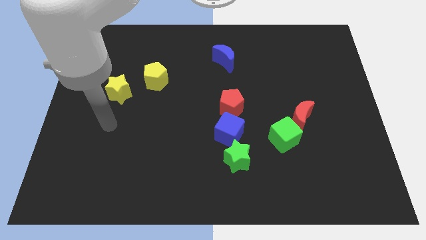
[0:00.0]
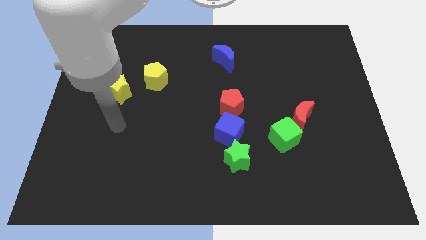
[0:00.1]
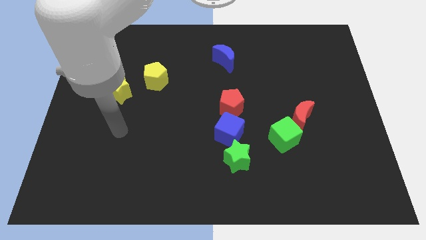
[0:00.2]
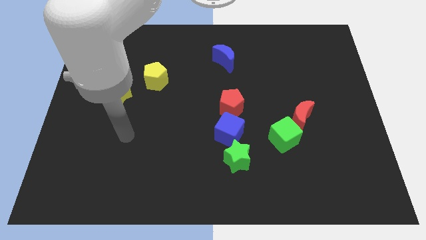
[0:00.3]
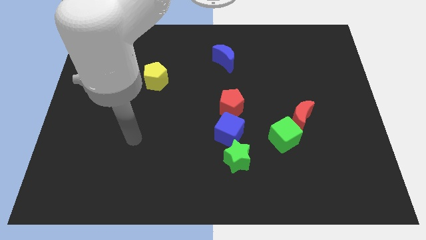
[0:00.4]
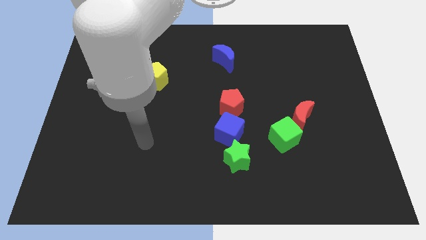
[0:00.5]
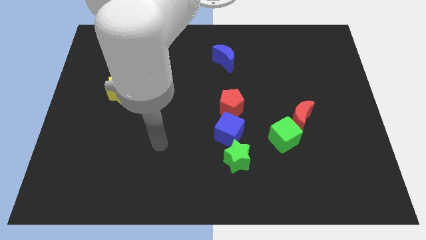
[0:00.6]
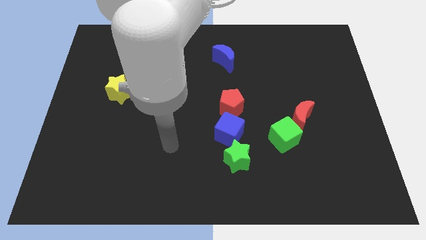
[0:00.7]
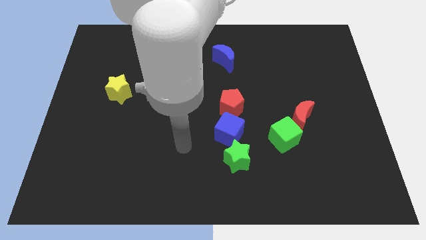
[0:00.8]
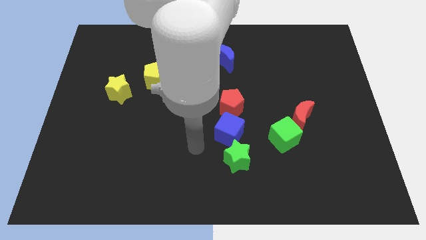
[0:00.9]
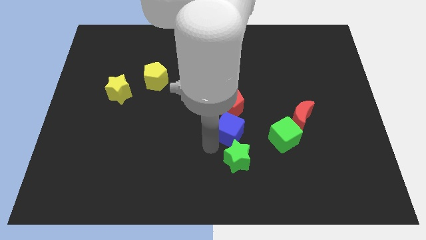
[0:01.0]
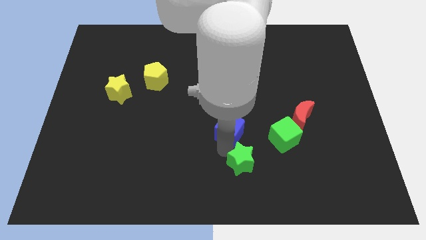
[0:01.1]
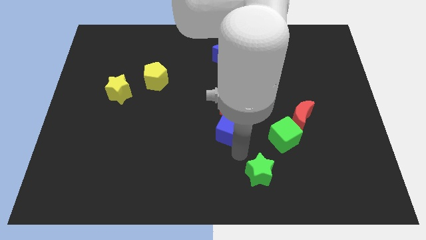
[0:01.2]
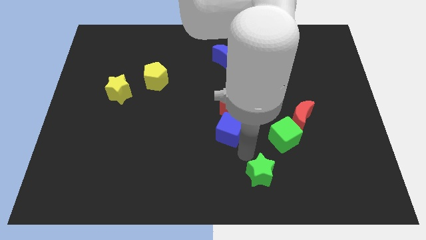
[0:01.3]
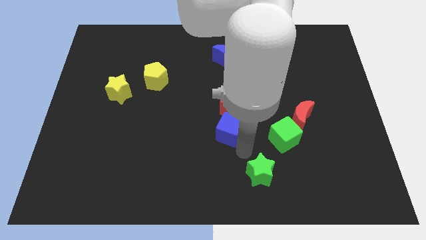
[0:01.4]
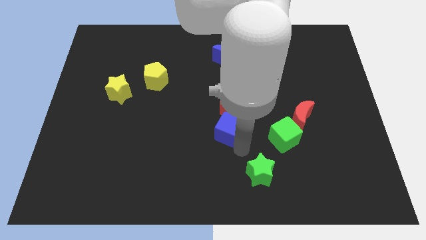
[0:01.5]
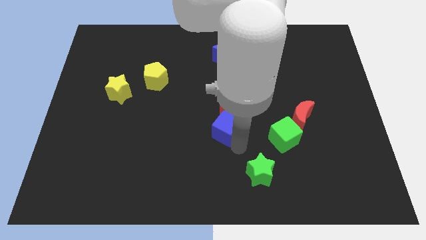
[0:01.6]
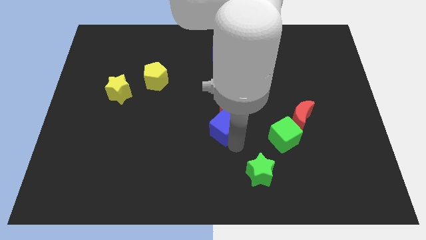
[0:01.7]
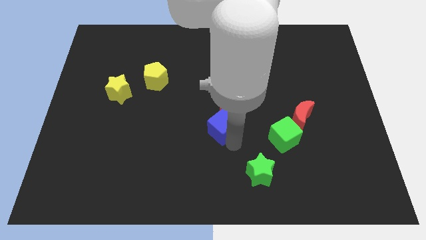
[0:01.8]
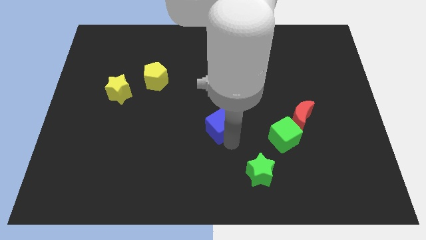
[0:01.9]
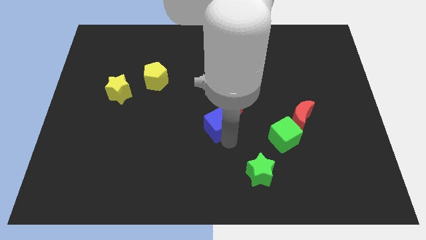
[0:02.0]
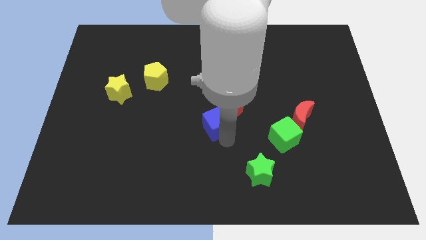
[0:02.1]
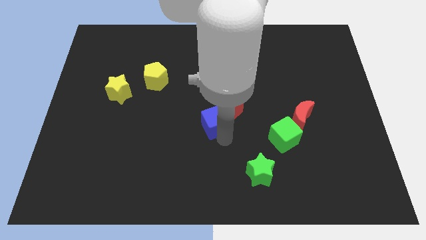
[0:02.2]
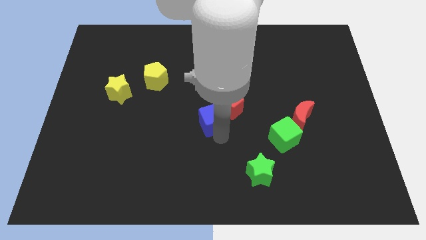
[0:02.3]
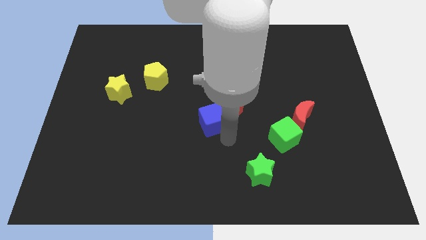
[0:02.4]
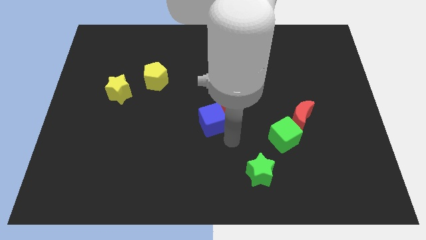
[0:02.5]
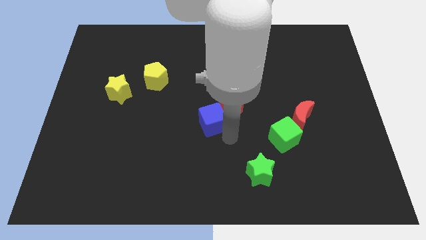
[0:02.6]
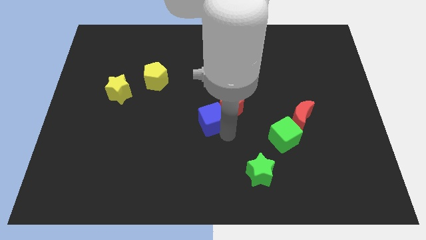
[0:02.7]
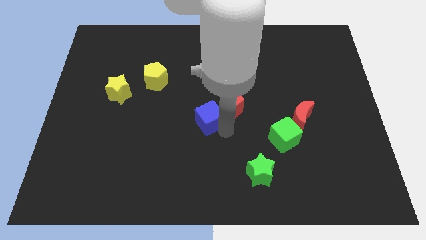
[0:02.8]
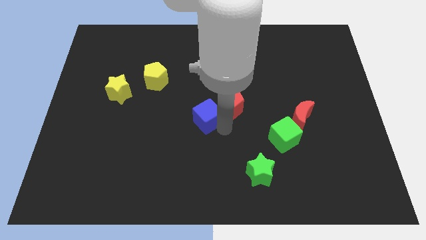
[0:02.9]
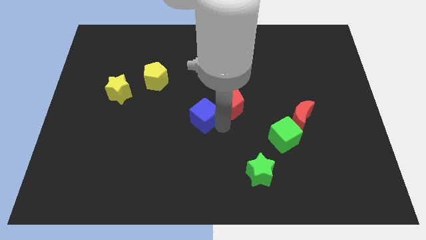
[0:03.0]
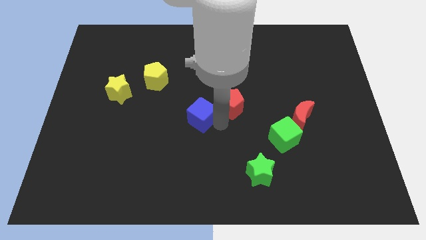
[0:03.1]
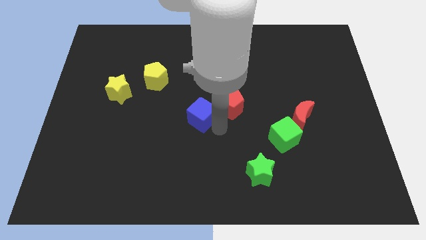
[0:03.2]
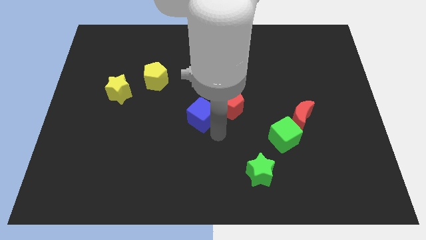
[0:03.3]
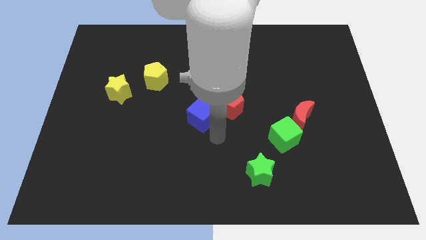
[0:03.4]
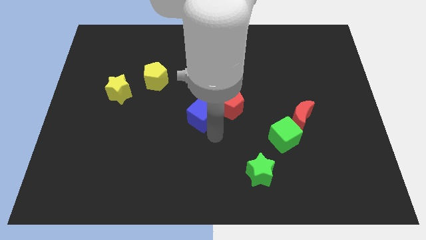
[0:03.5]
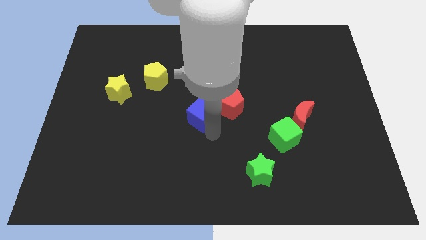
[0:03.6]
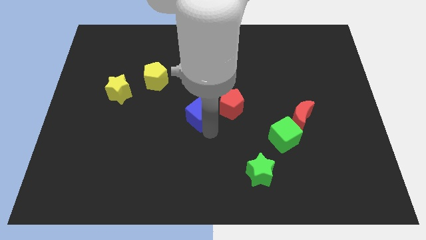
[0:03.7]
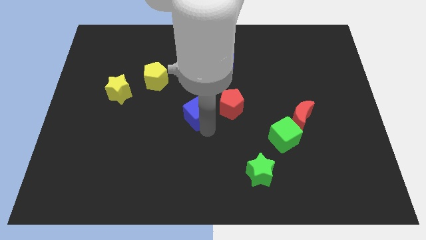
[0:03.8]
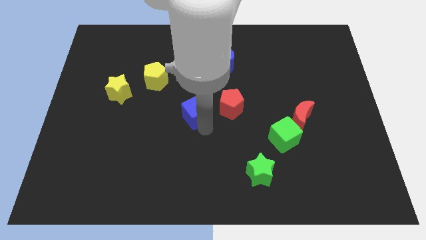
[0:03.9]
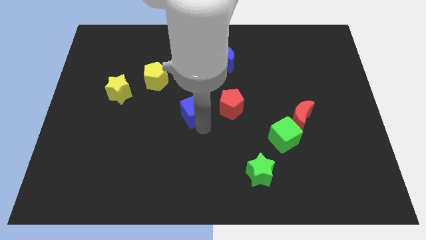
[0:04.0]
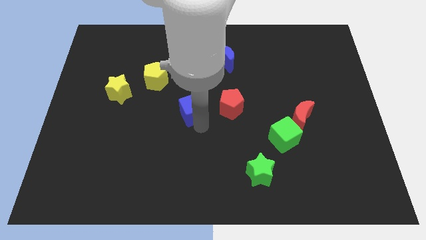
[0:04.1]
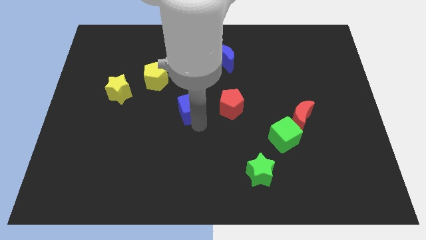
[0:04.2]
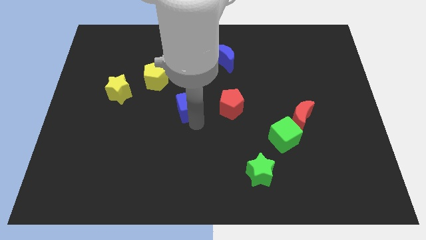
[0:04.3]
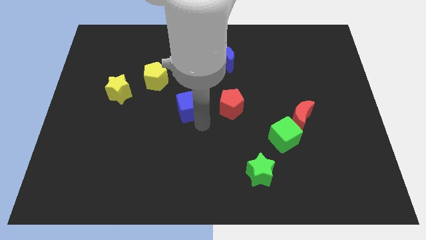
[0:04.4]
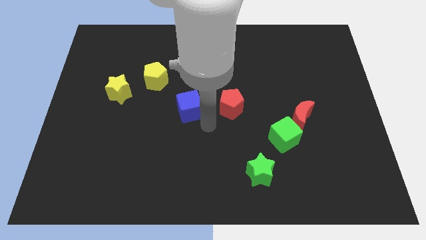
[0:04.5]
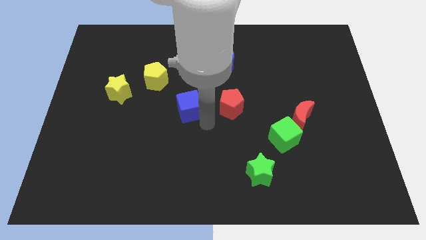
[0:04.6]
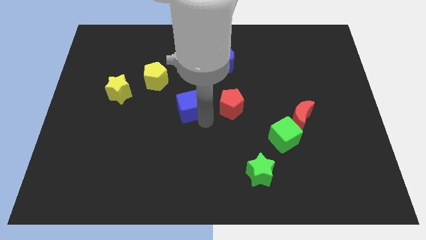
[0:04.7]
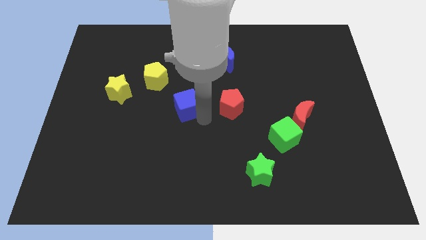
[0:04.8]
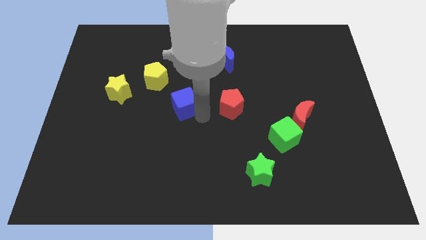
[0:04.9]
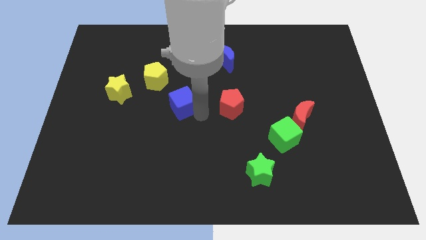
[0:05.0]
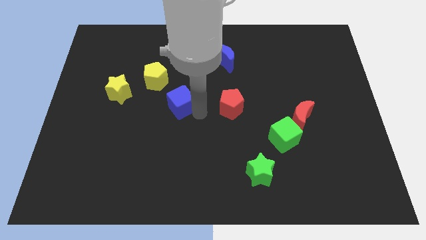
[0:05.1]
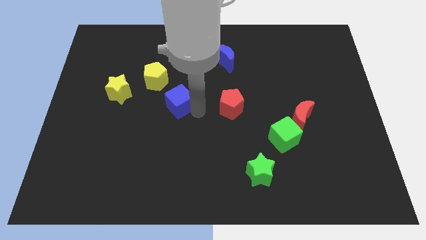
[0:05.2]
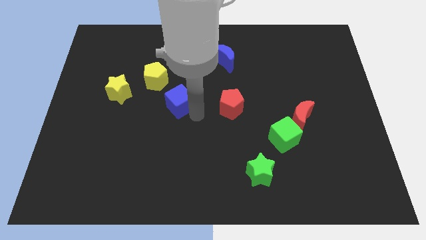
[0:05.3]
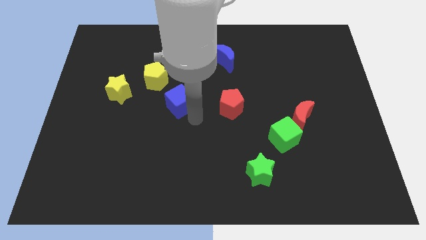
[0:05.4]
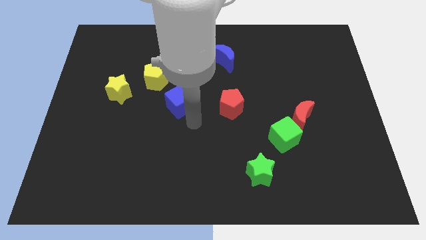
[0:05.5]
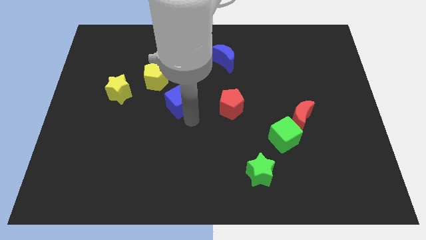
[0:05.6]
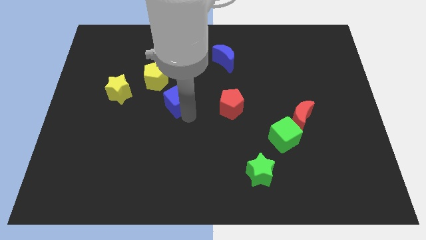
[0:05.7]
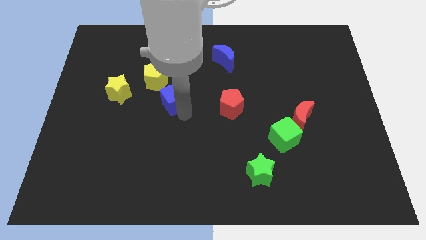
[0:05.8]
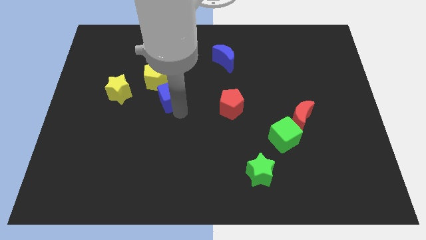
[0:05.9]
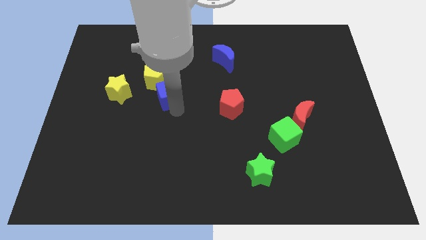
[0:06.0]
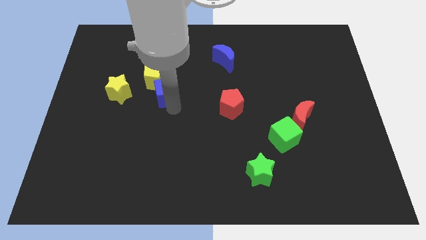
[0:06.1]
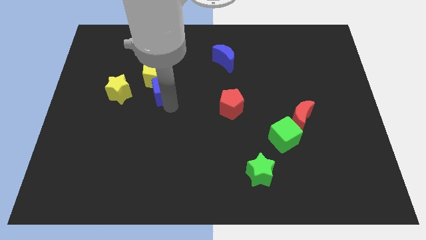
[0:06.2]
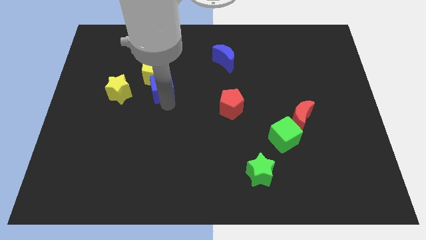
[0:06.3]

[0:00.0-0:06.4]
move the blue cube up and left diagonally

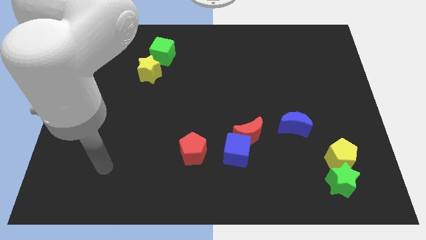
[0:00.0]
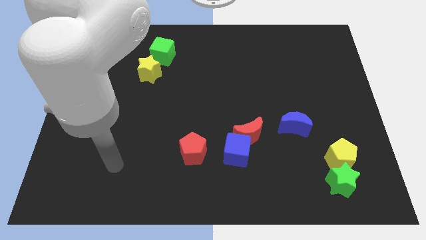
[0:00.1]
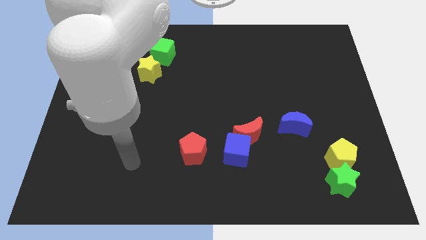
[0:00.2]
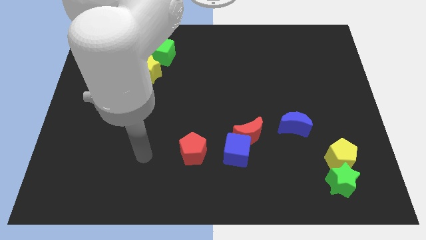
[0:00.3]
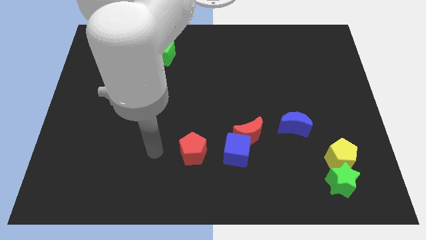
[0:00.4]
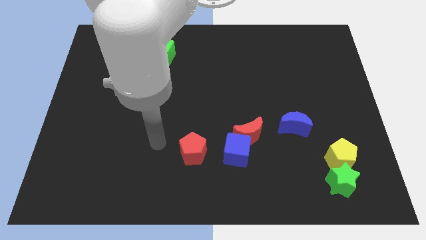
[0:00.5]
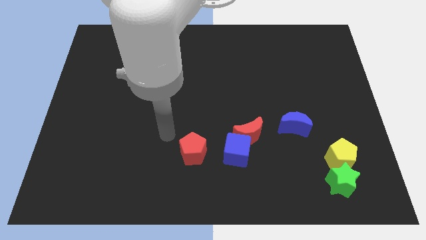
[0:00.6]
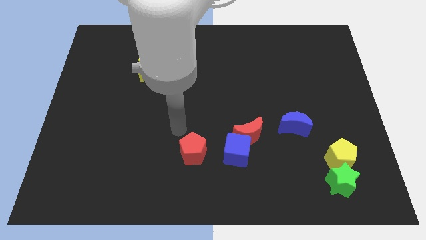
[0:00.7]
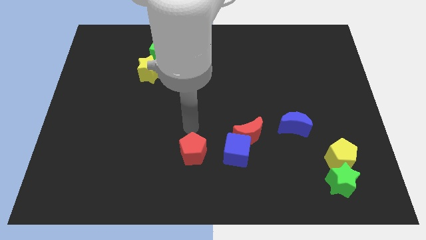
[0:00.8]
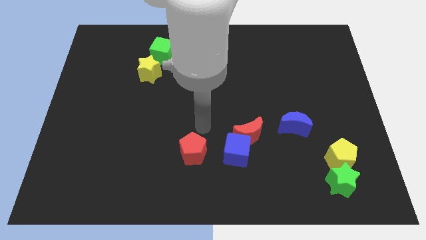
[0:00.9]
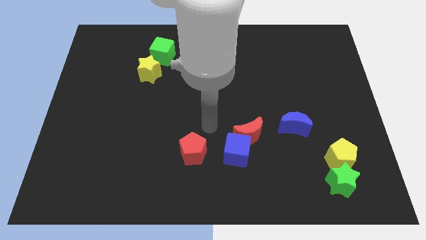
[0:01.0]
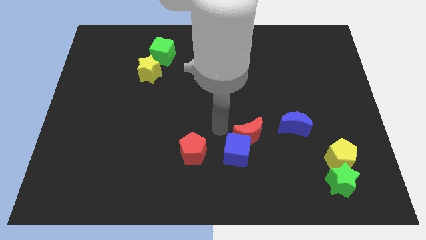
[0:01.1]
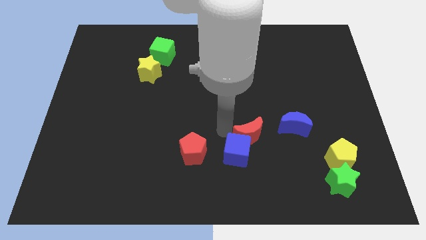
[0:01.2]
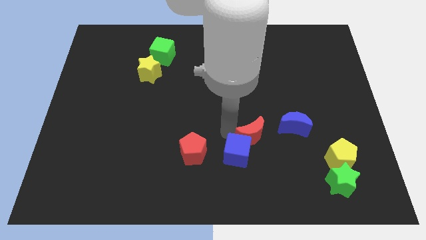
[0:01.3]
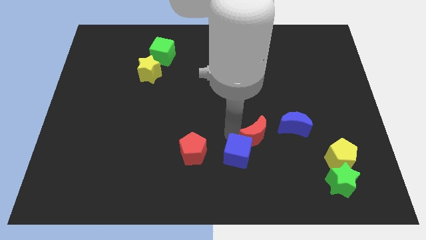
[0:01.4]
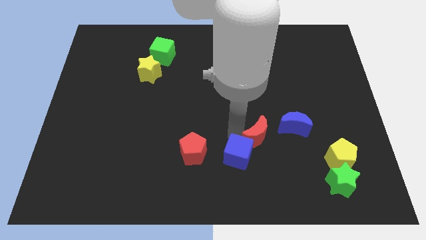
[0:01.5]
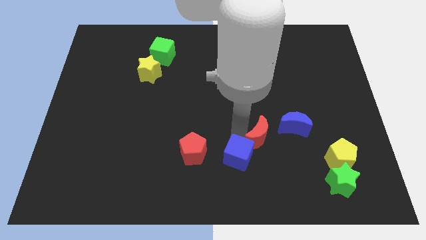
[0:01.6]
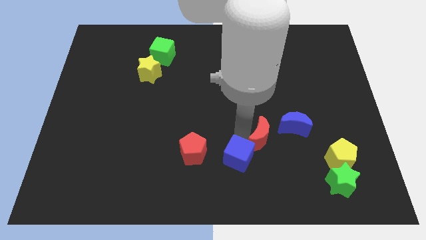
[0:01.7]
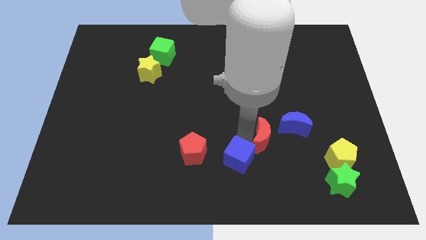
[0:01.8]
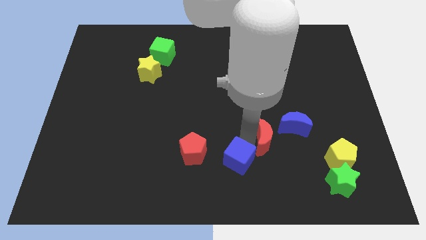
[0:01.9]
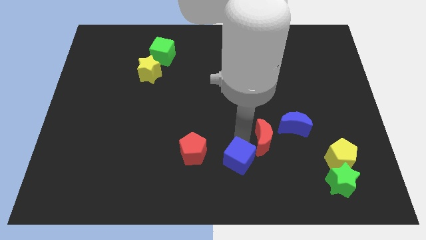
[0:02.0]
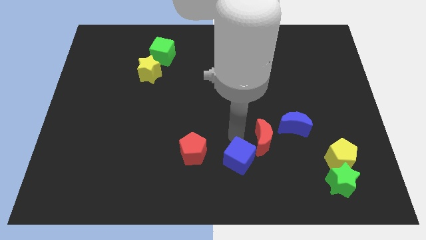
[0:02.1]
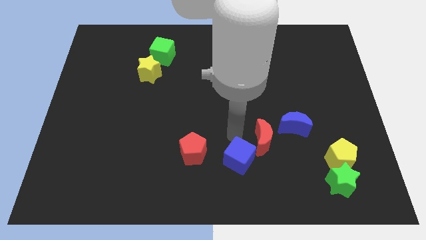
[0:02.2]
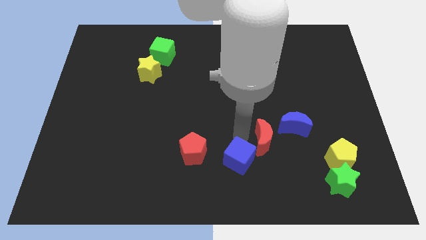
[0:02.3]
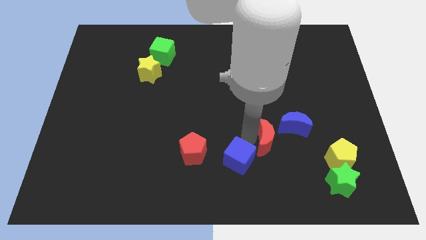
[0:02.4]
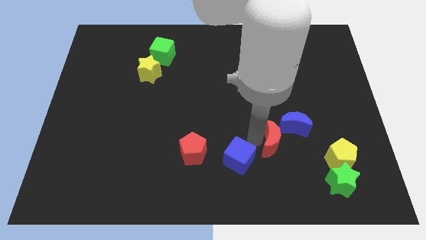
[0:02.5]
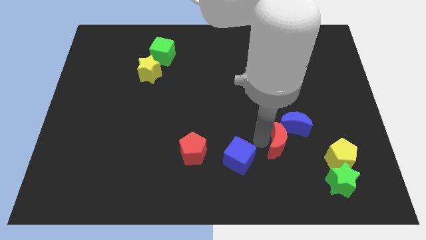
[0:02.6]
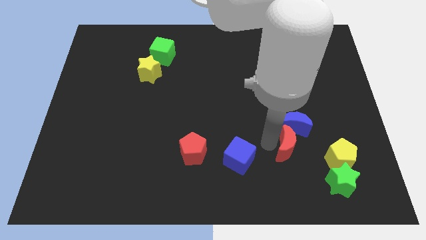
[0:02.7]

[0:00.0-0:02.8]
move the red moon a little bit to the right
